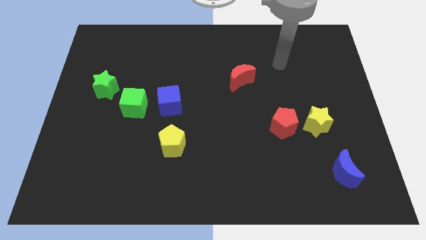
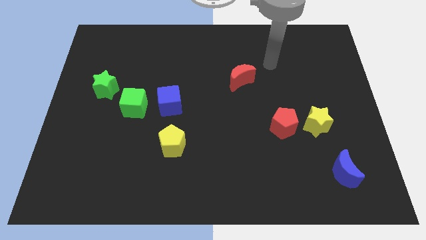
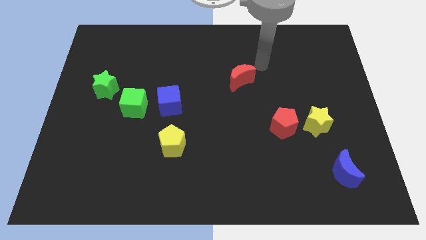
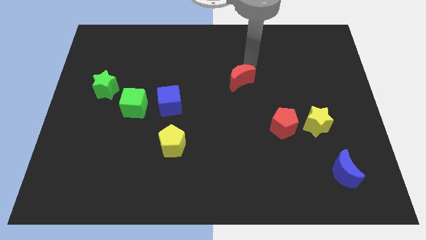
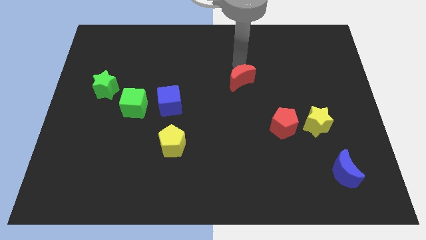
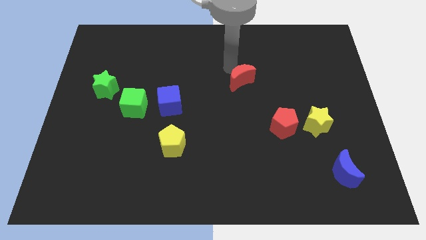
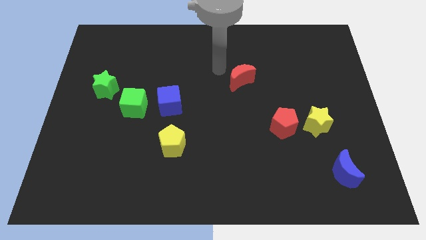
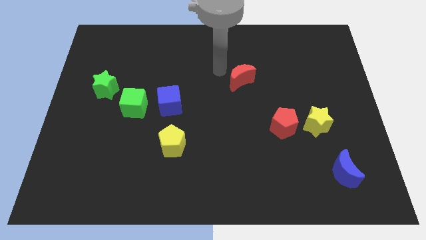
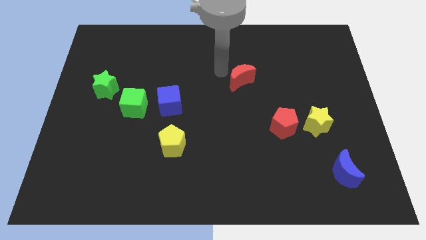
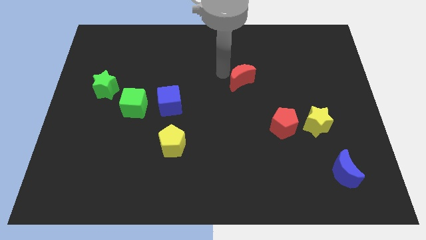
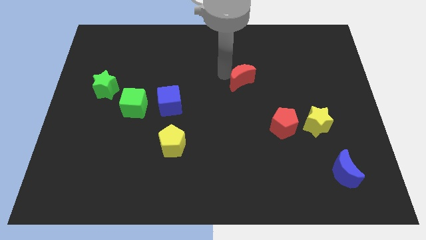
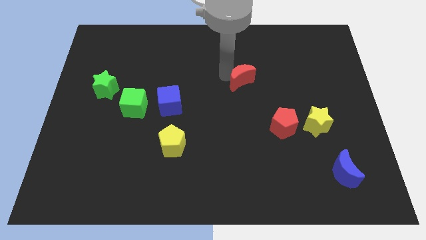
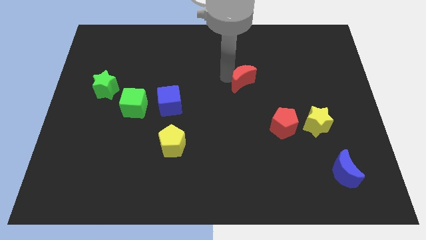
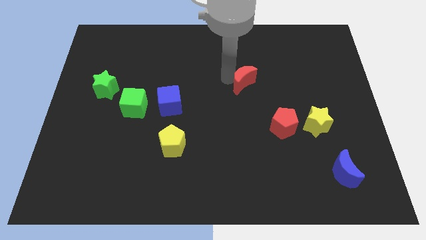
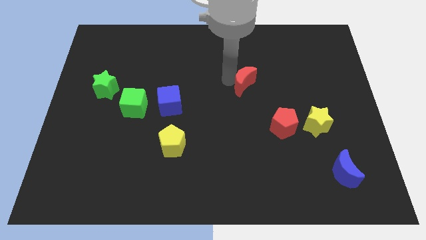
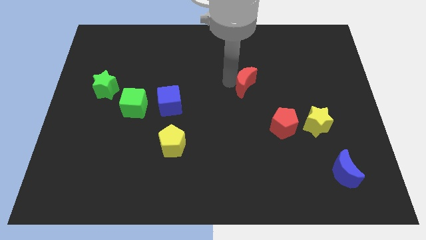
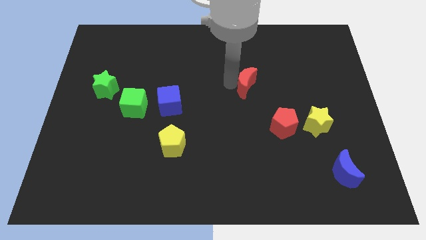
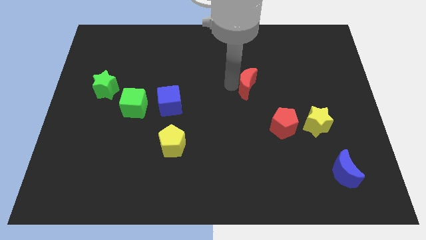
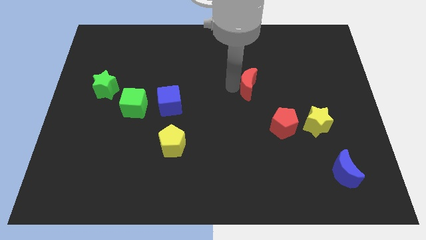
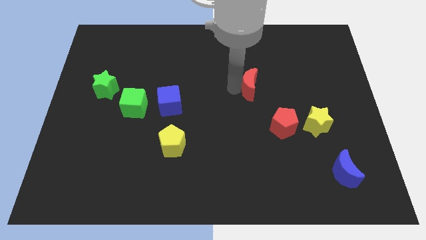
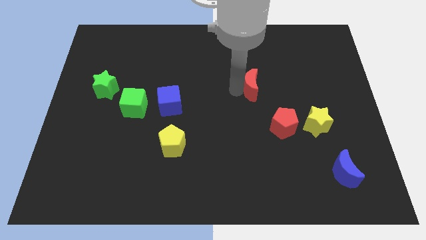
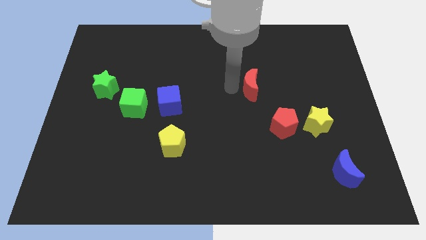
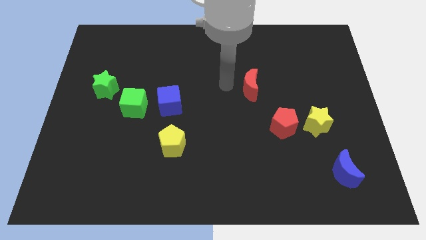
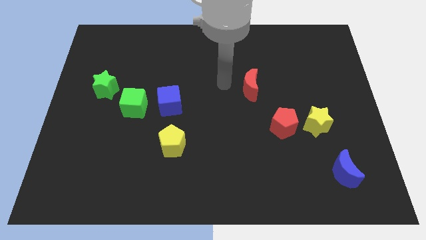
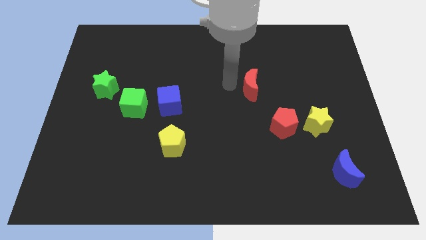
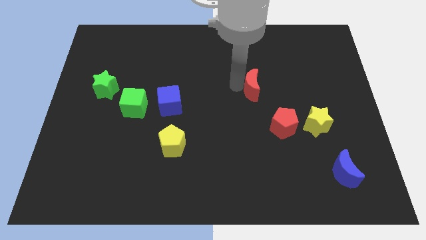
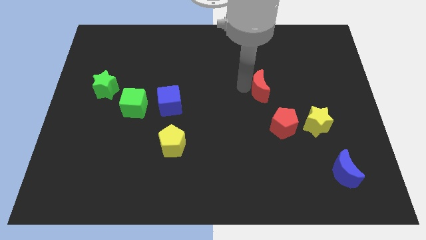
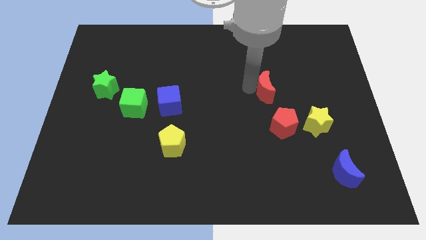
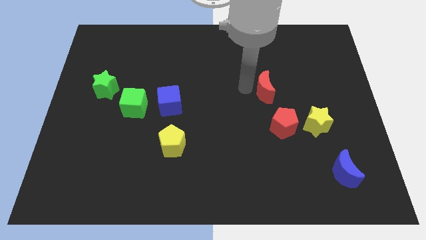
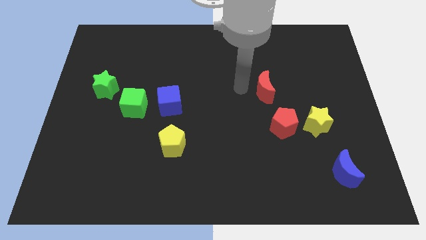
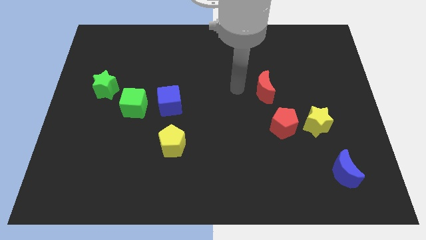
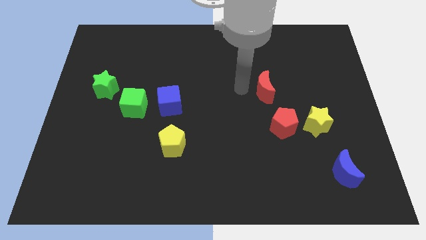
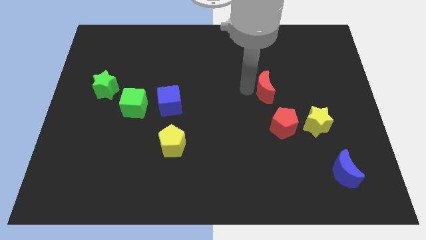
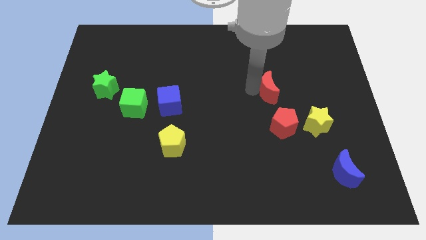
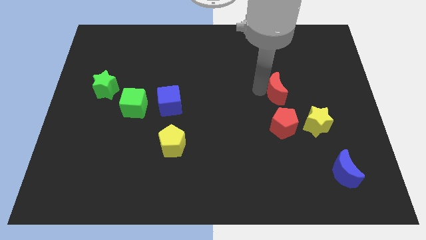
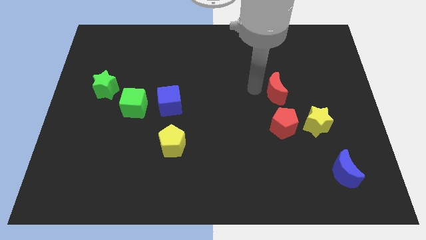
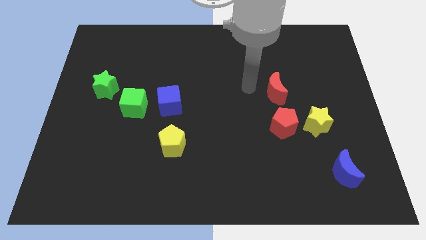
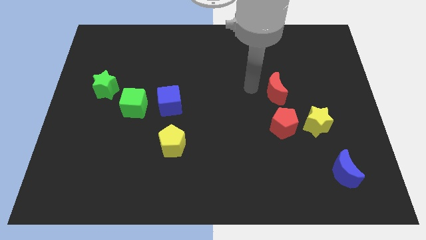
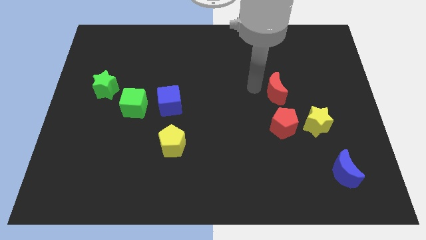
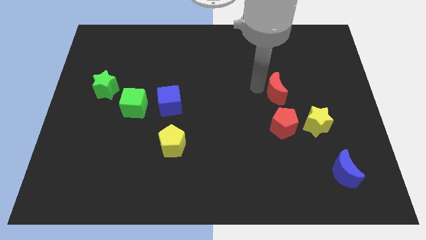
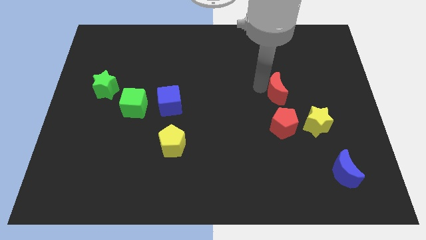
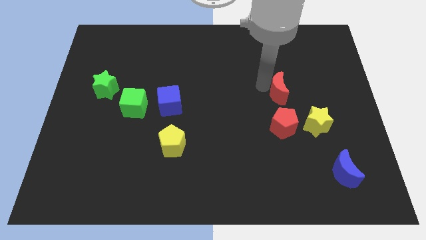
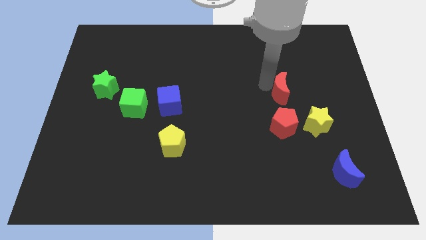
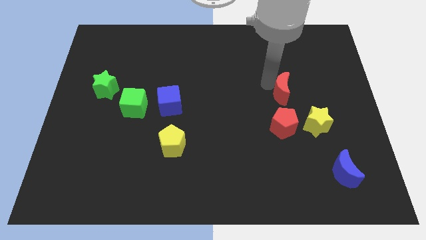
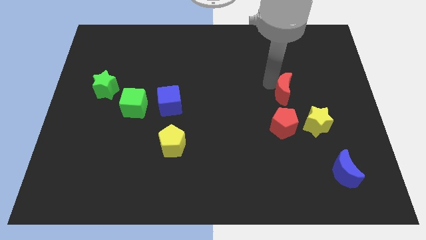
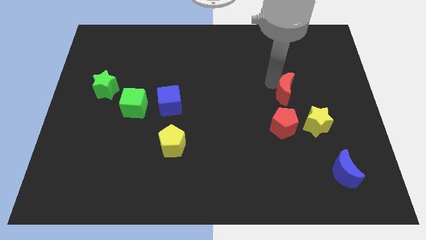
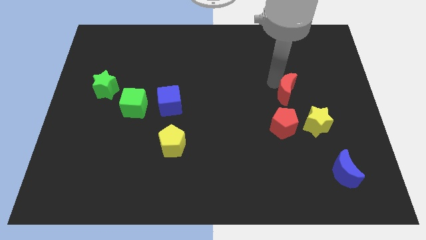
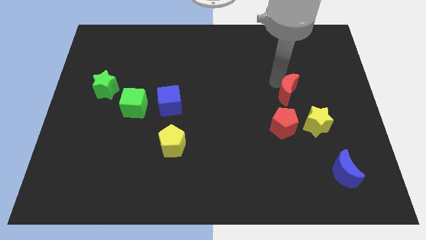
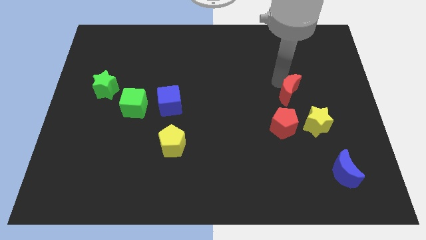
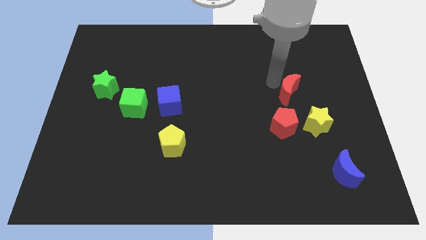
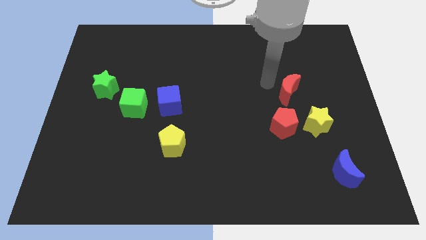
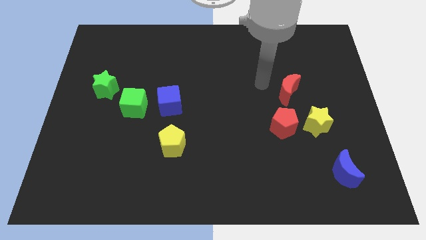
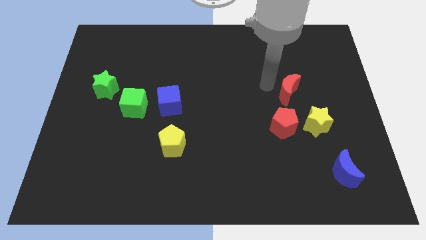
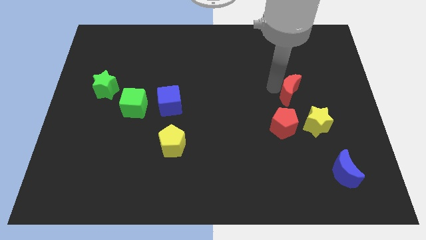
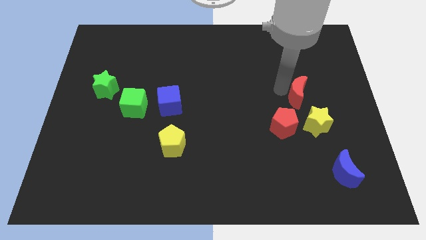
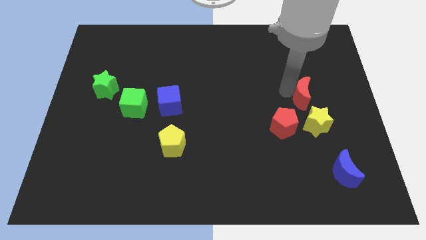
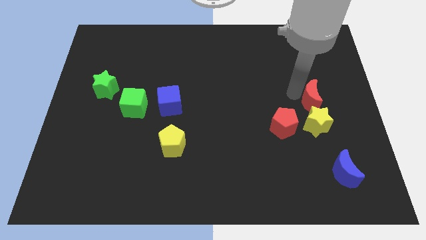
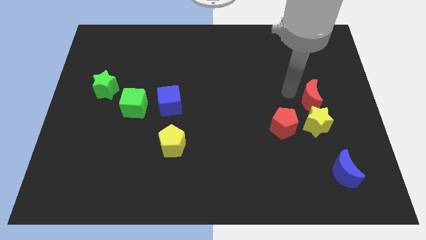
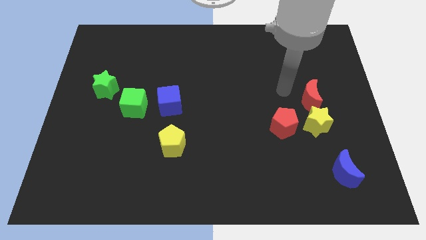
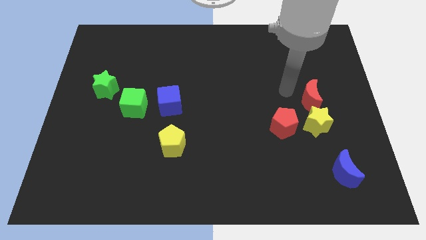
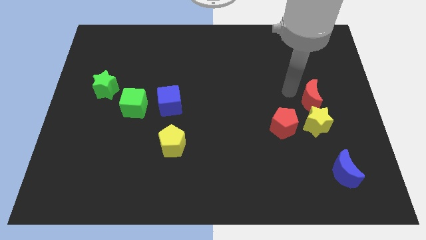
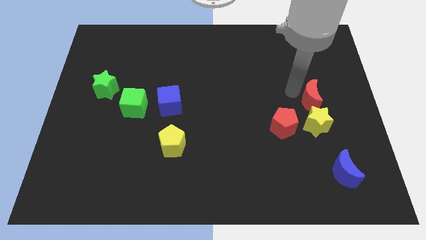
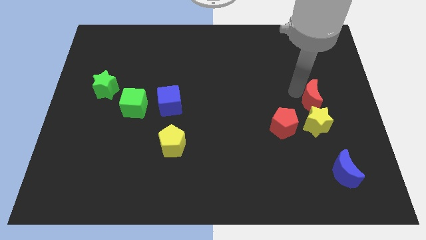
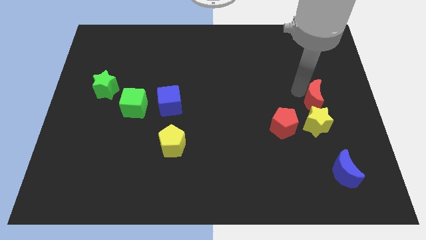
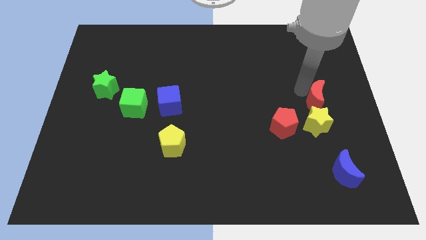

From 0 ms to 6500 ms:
push the red moon to the top right side of the yellow star
